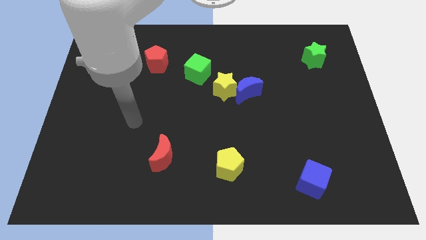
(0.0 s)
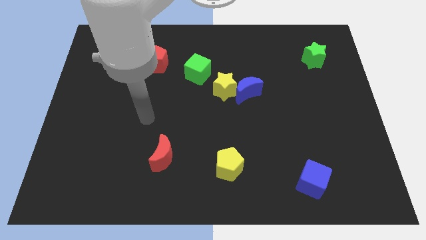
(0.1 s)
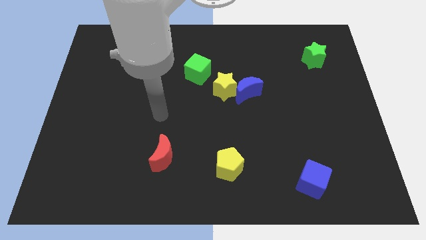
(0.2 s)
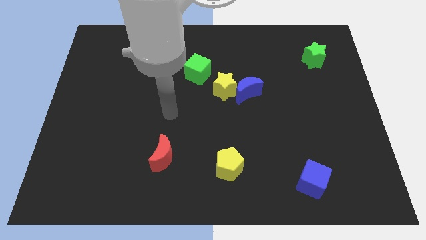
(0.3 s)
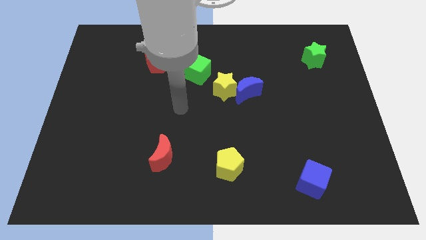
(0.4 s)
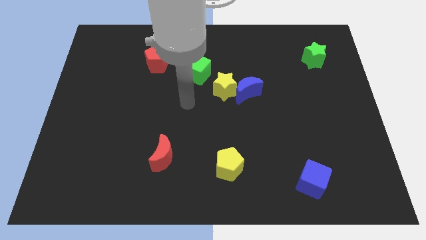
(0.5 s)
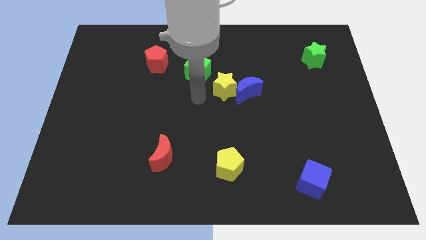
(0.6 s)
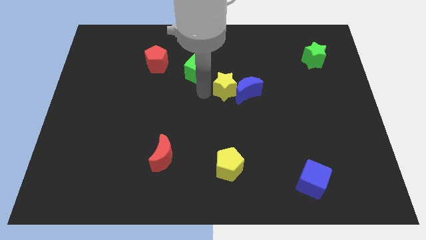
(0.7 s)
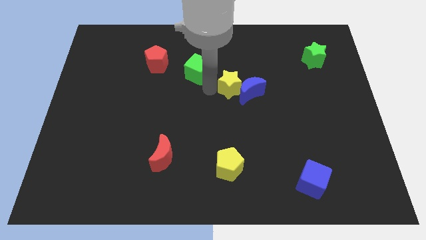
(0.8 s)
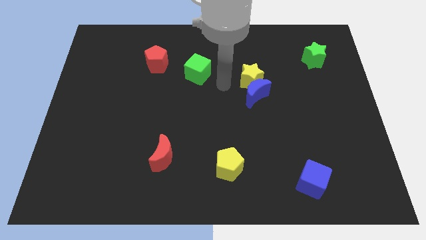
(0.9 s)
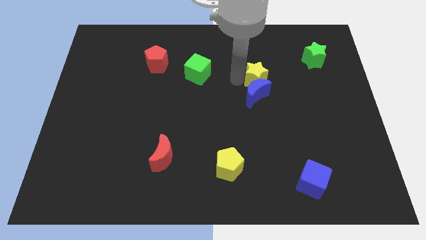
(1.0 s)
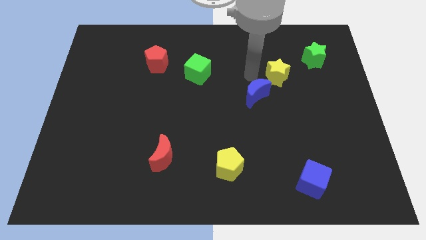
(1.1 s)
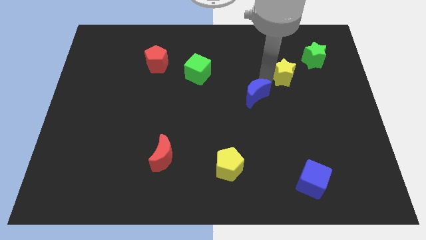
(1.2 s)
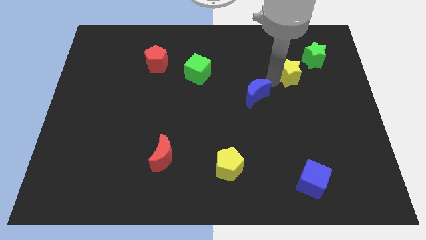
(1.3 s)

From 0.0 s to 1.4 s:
move the blue moon away from the yellow star

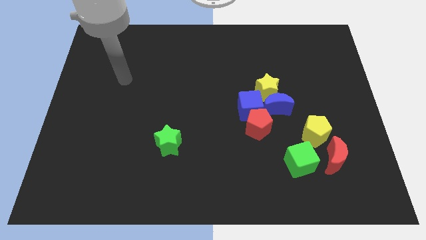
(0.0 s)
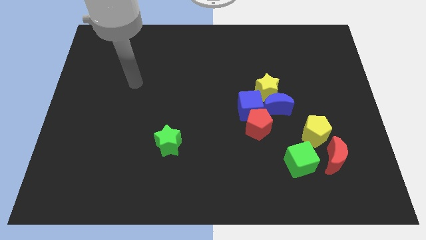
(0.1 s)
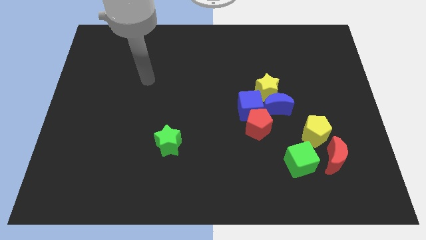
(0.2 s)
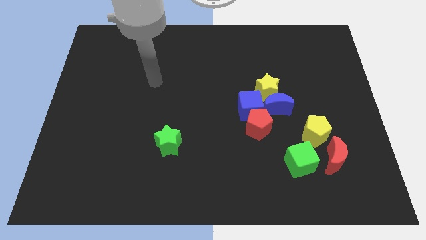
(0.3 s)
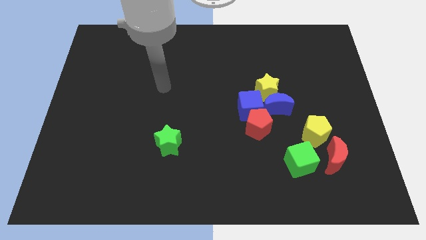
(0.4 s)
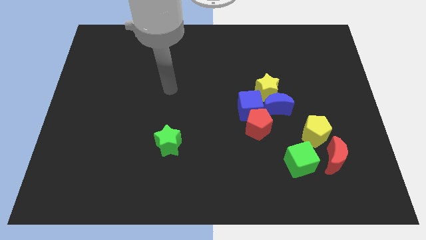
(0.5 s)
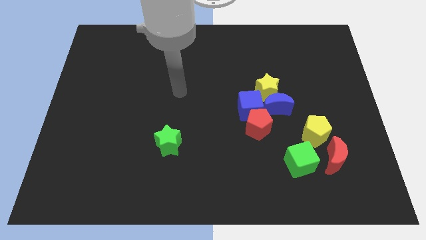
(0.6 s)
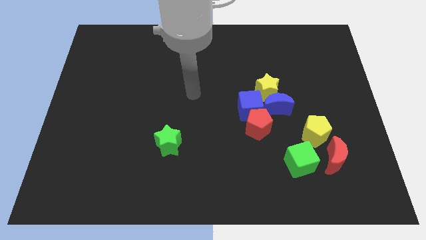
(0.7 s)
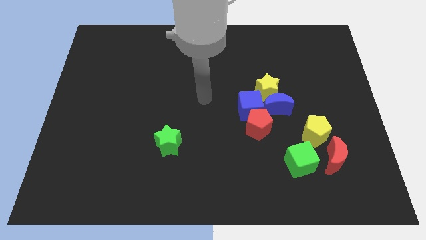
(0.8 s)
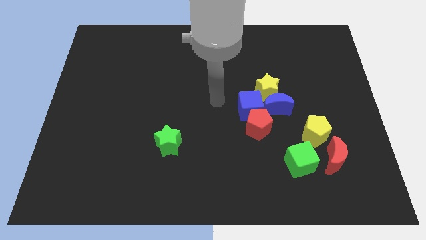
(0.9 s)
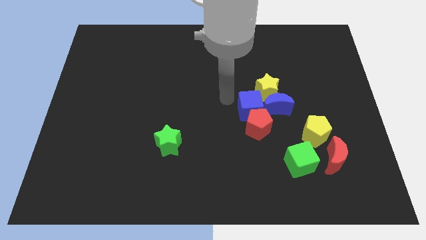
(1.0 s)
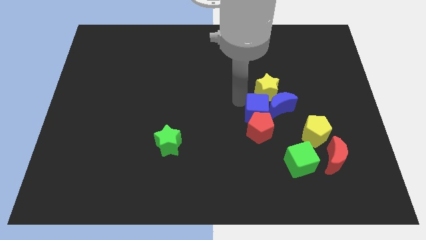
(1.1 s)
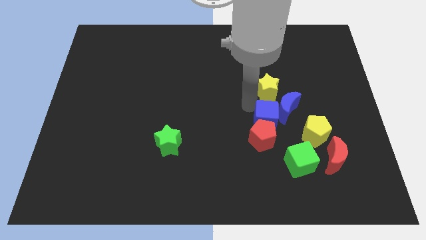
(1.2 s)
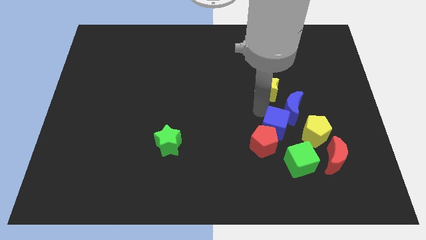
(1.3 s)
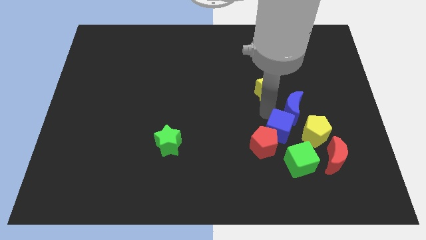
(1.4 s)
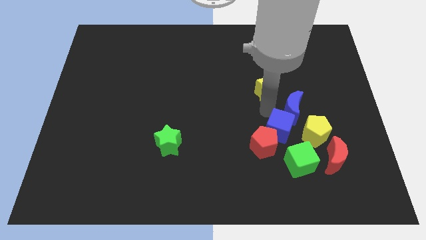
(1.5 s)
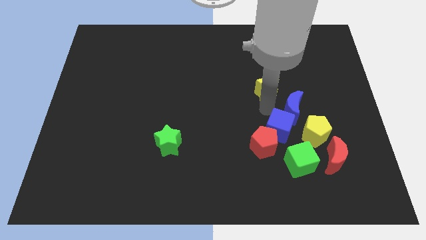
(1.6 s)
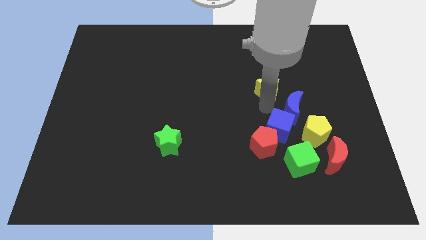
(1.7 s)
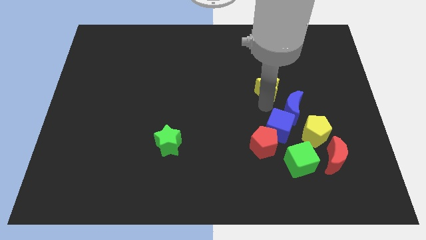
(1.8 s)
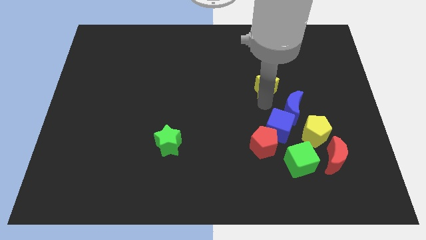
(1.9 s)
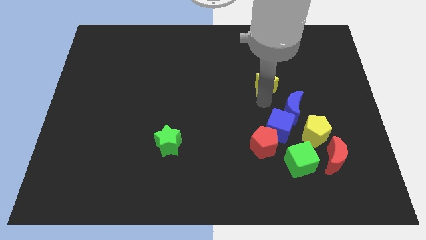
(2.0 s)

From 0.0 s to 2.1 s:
pull the yellow star apart from the blue moon and blue cube

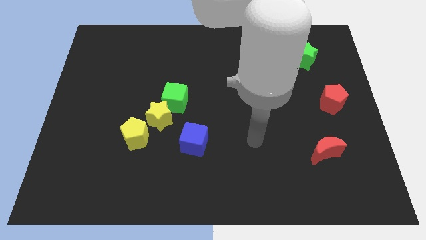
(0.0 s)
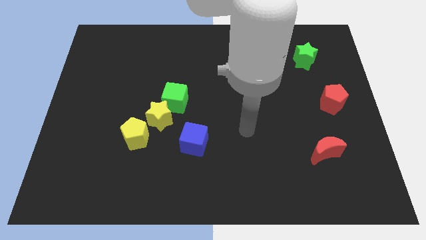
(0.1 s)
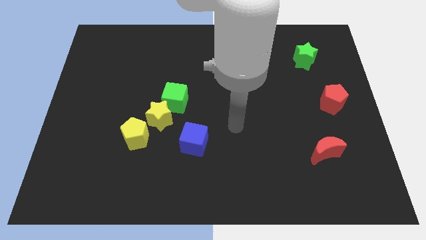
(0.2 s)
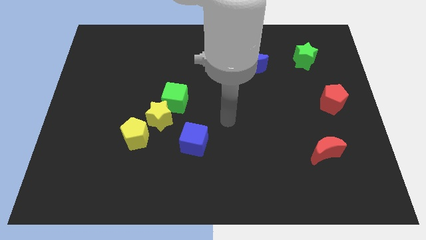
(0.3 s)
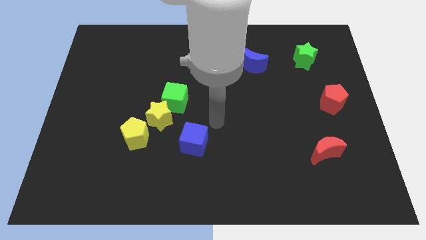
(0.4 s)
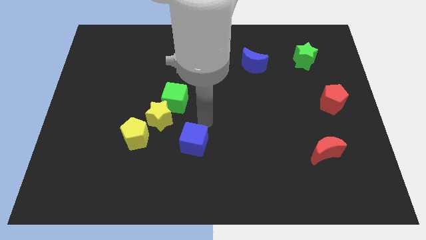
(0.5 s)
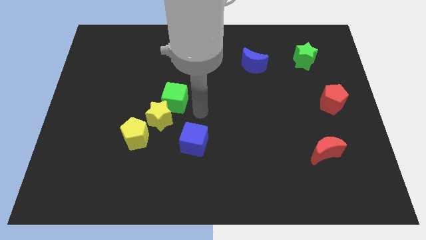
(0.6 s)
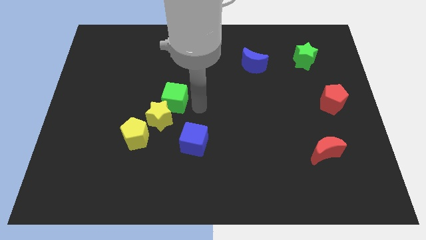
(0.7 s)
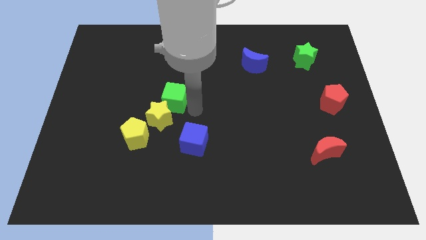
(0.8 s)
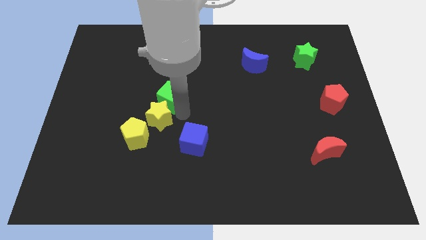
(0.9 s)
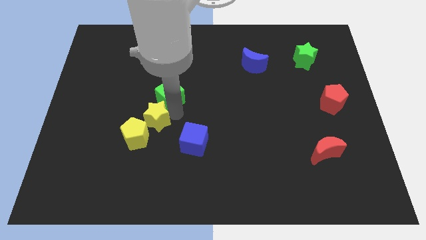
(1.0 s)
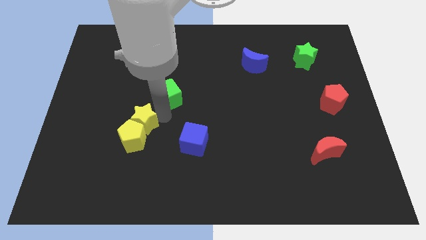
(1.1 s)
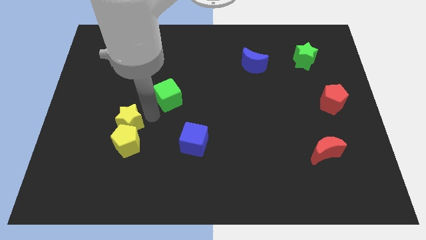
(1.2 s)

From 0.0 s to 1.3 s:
pull the green cube apart from the yellow star

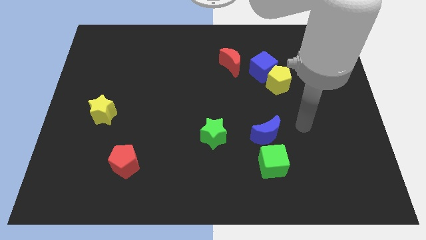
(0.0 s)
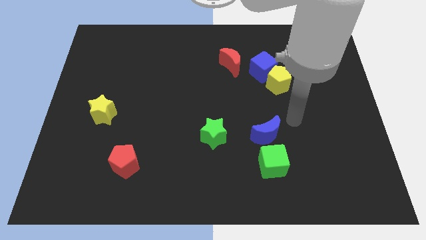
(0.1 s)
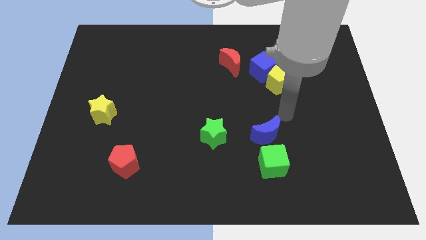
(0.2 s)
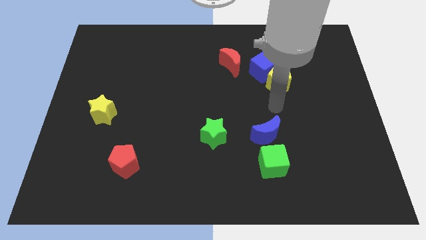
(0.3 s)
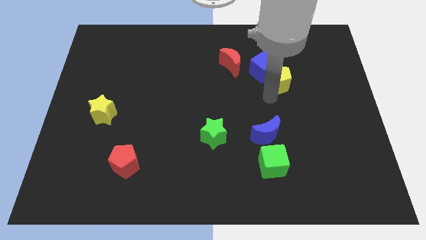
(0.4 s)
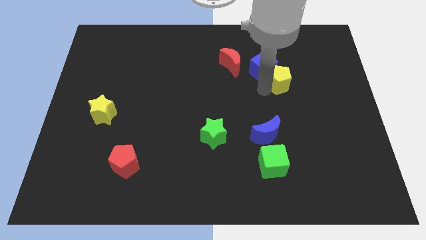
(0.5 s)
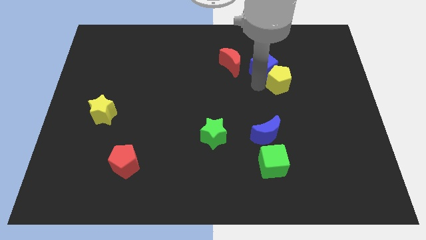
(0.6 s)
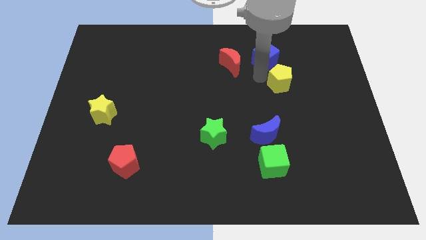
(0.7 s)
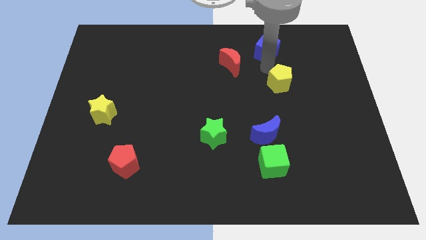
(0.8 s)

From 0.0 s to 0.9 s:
pull the yellow pentagon apart from the blue cube

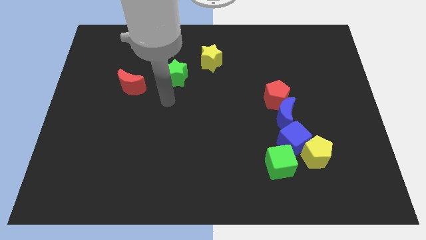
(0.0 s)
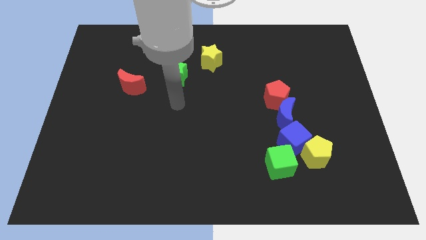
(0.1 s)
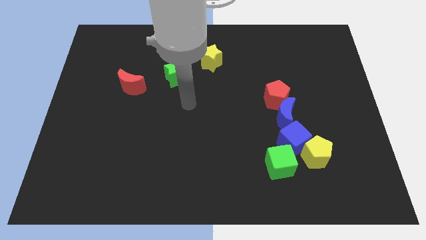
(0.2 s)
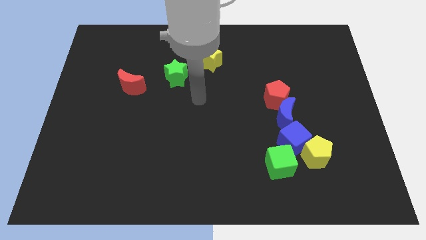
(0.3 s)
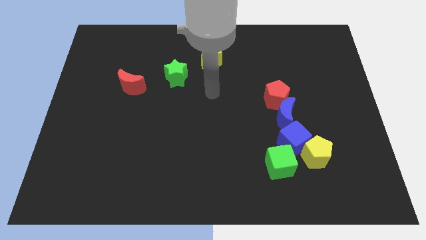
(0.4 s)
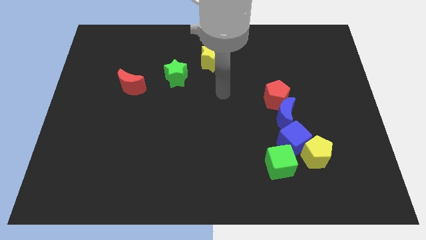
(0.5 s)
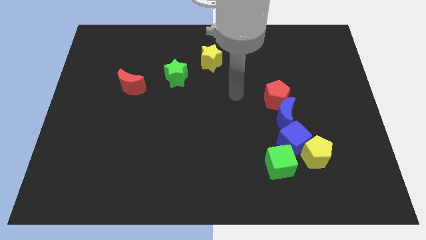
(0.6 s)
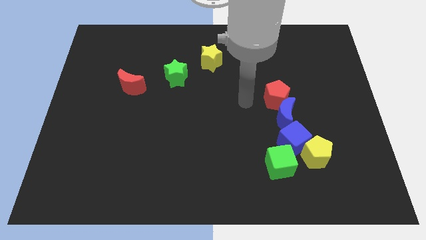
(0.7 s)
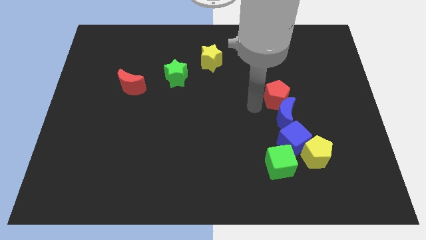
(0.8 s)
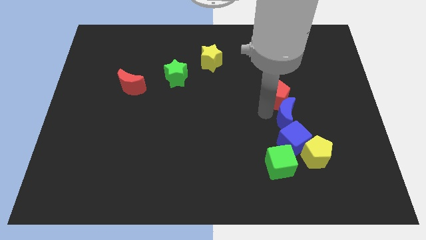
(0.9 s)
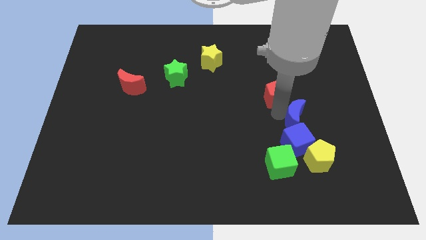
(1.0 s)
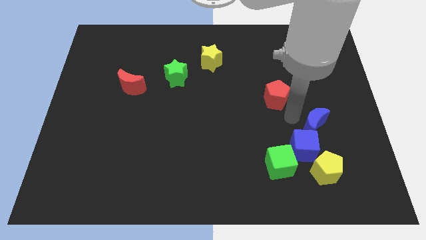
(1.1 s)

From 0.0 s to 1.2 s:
move the red pentagon away from the blue moon

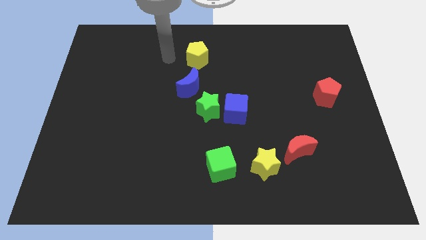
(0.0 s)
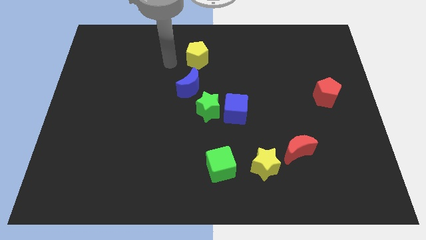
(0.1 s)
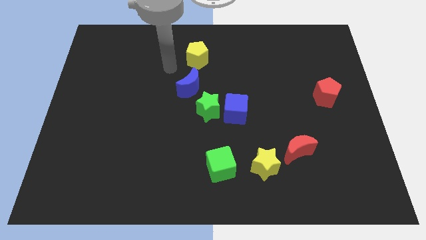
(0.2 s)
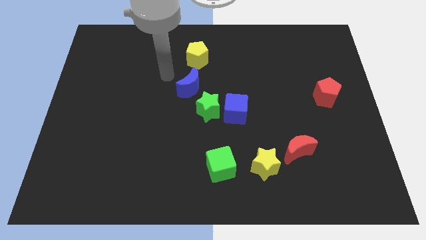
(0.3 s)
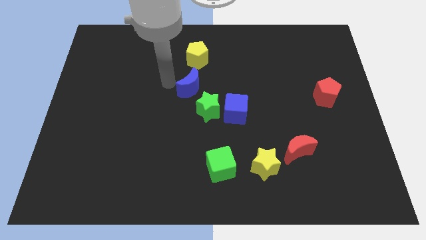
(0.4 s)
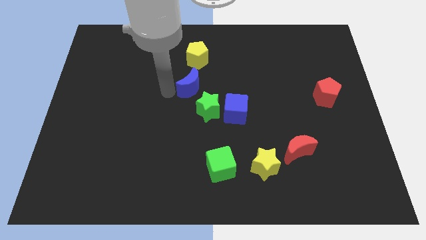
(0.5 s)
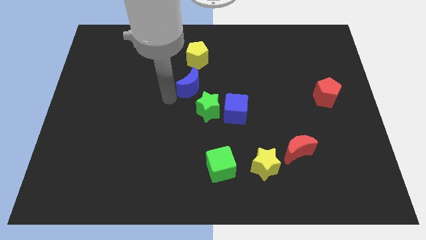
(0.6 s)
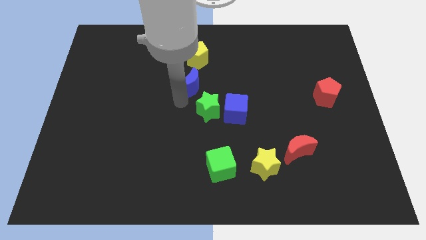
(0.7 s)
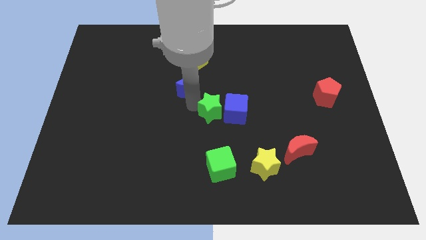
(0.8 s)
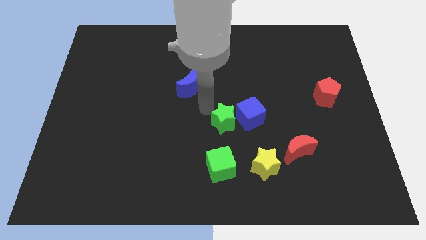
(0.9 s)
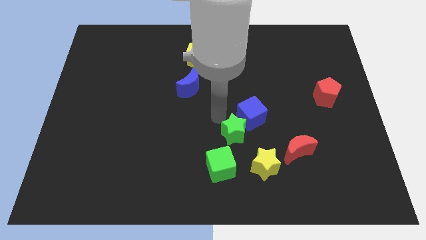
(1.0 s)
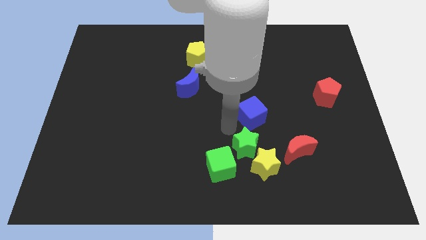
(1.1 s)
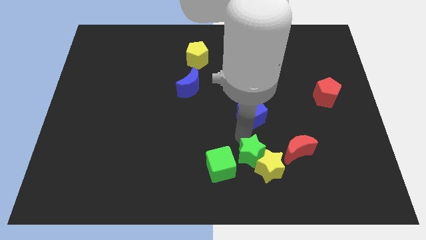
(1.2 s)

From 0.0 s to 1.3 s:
separate the blue cube from the green star

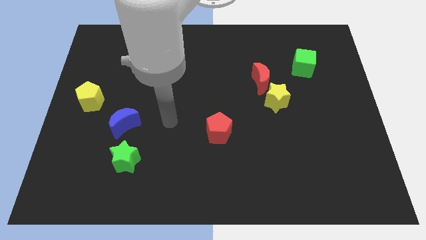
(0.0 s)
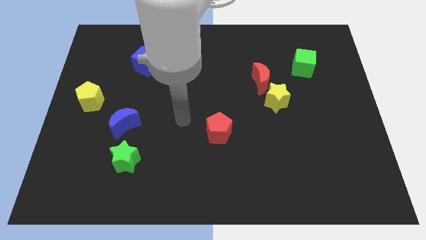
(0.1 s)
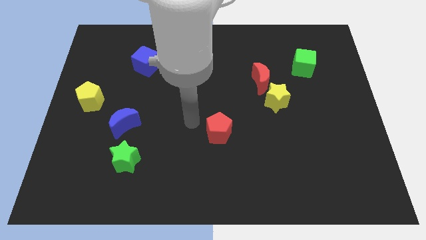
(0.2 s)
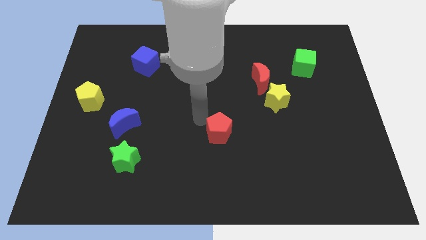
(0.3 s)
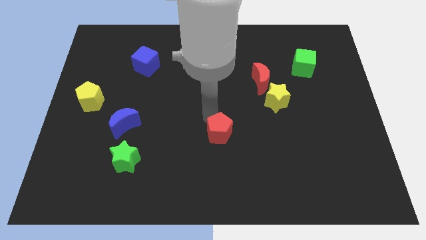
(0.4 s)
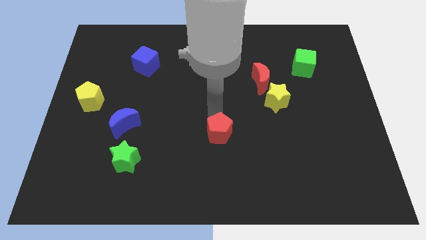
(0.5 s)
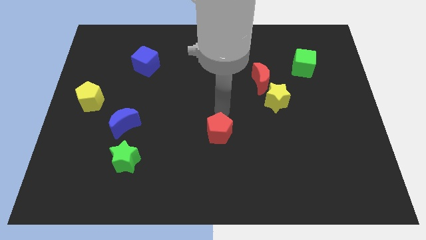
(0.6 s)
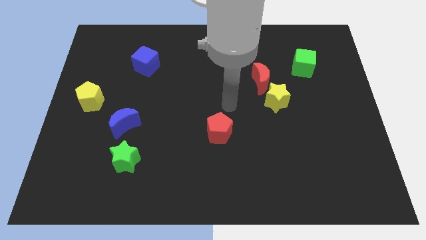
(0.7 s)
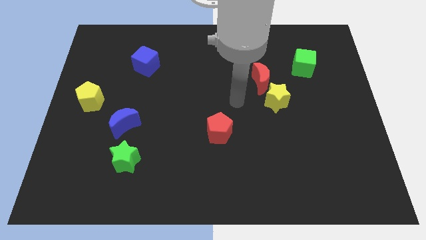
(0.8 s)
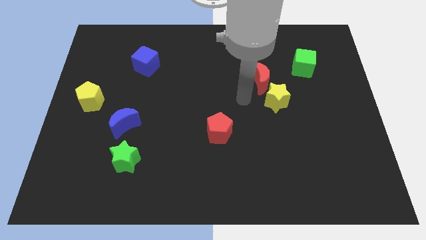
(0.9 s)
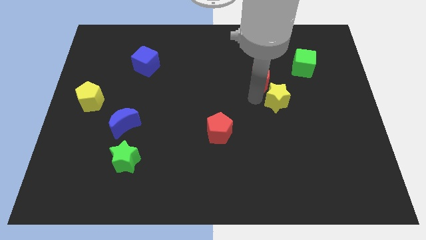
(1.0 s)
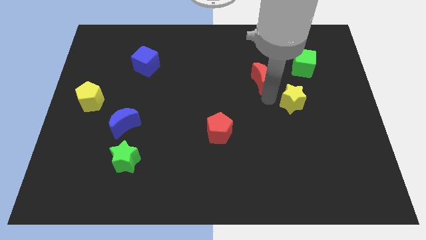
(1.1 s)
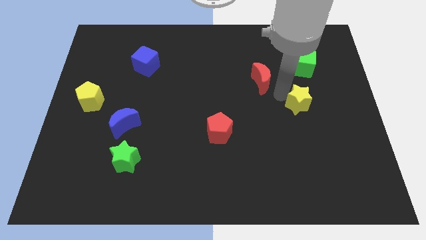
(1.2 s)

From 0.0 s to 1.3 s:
move the red moon away from the yellow star
